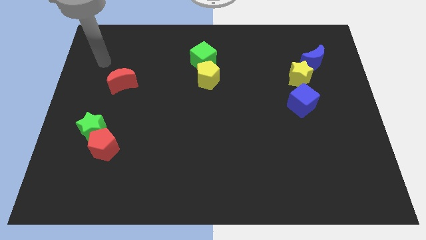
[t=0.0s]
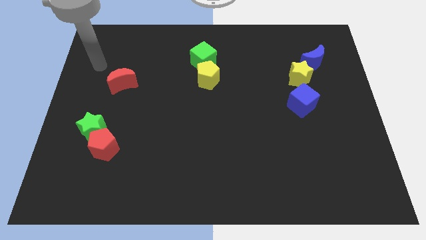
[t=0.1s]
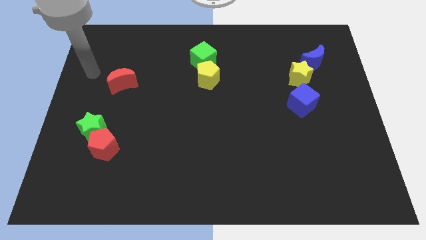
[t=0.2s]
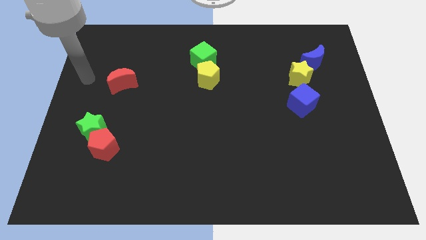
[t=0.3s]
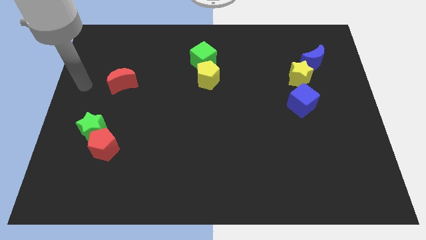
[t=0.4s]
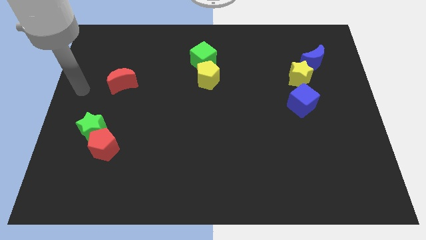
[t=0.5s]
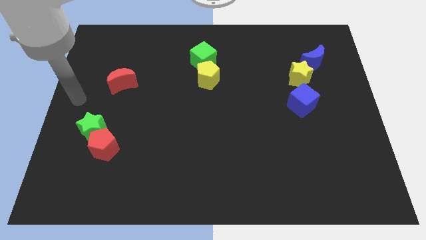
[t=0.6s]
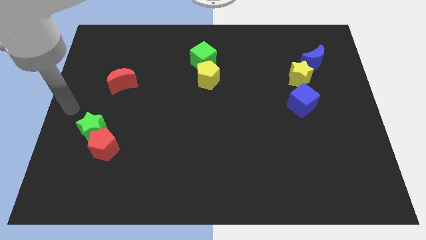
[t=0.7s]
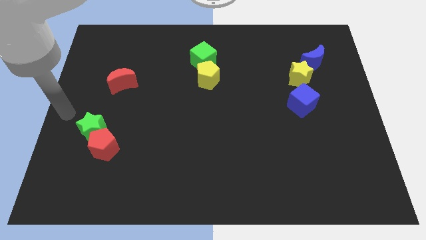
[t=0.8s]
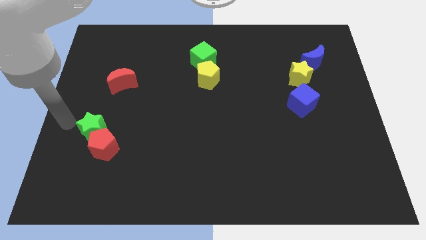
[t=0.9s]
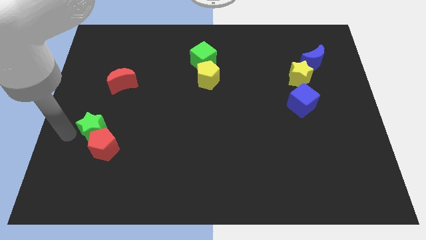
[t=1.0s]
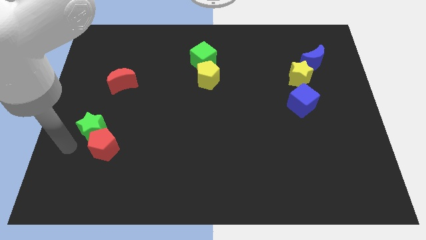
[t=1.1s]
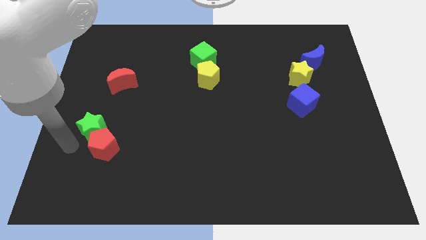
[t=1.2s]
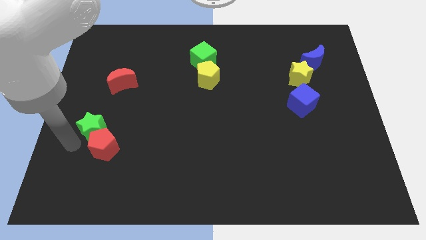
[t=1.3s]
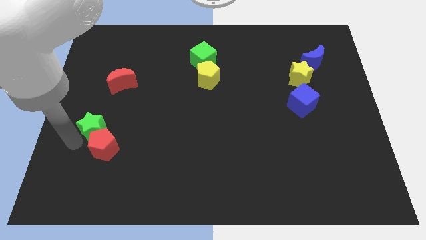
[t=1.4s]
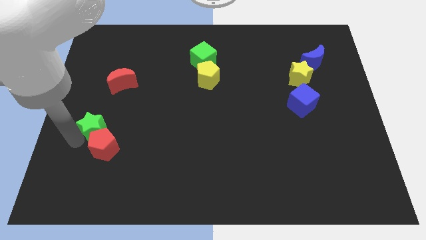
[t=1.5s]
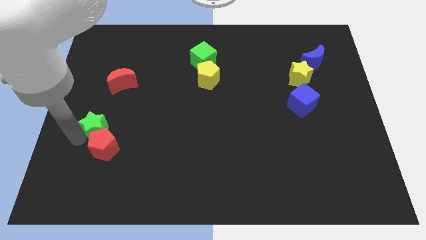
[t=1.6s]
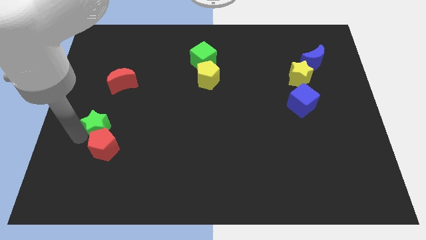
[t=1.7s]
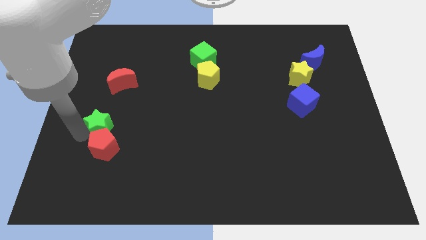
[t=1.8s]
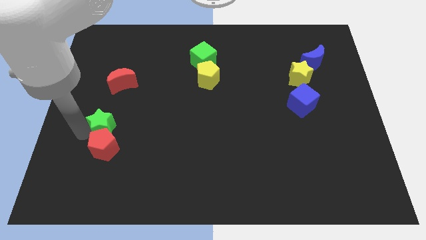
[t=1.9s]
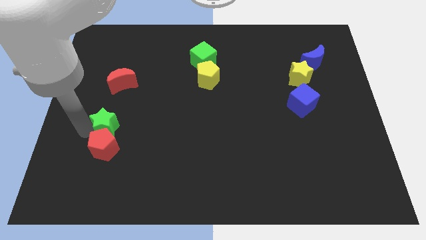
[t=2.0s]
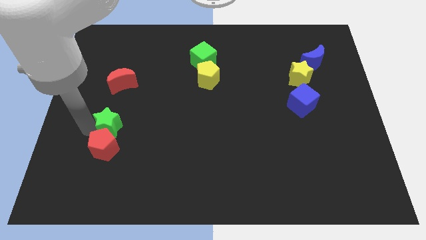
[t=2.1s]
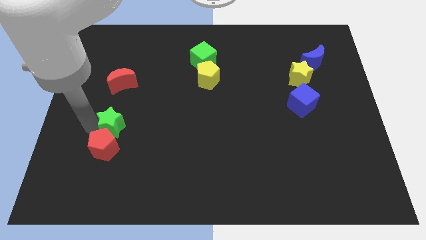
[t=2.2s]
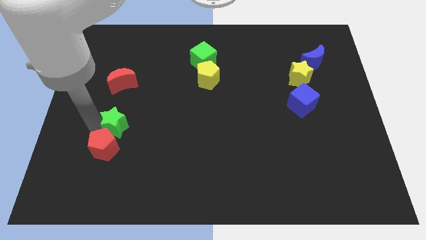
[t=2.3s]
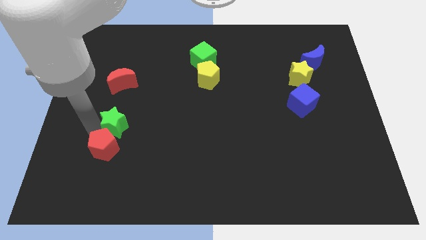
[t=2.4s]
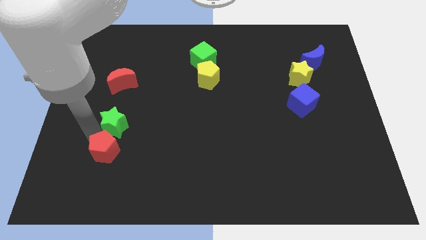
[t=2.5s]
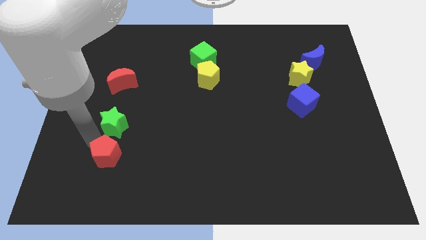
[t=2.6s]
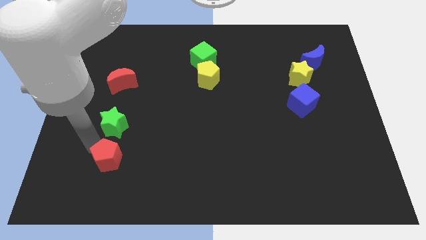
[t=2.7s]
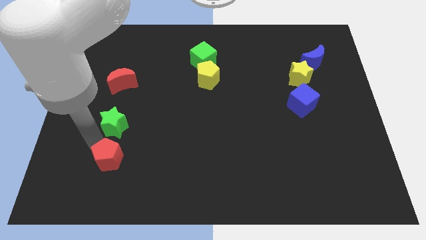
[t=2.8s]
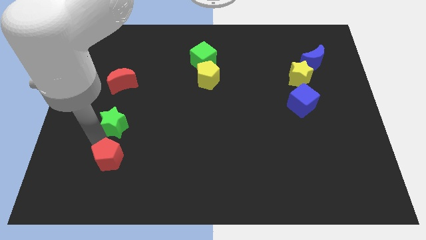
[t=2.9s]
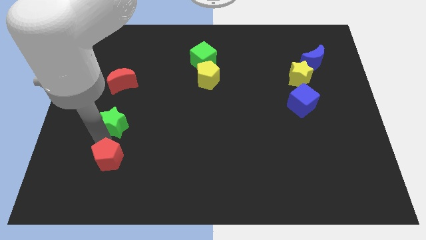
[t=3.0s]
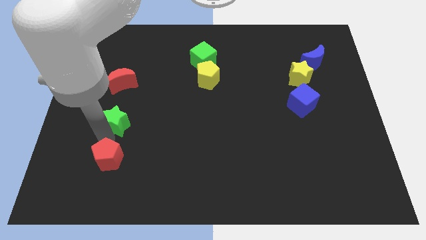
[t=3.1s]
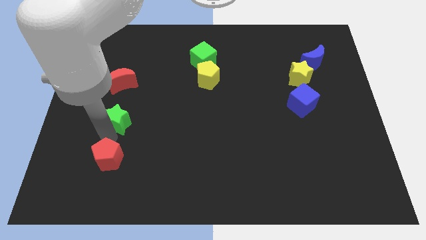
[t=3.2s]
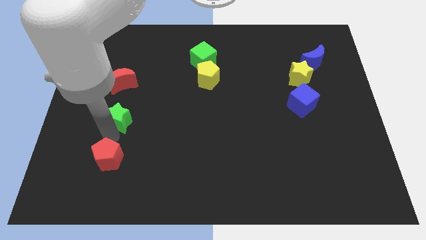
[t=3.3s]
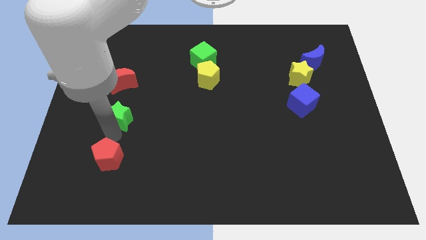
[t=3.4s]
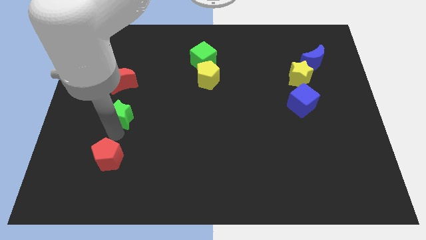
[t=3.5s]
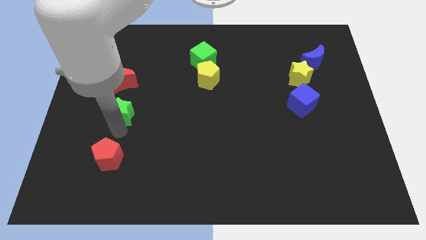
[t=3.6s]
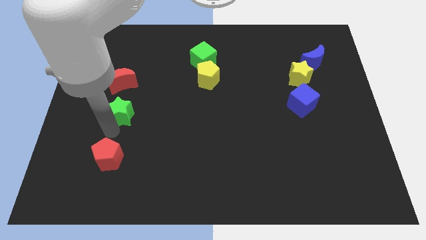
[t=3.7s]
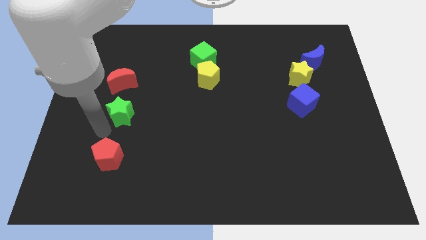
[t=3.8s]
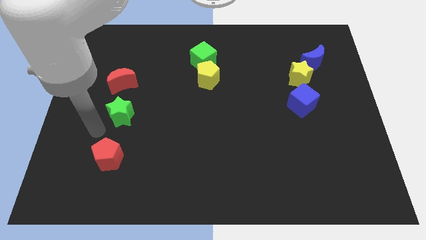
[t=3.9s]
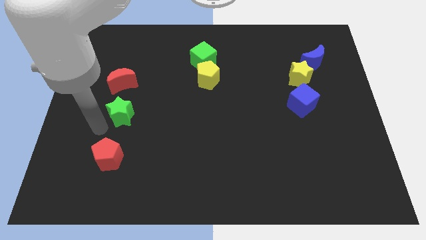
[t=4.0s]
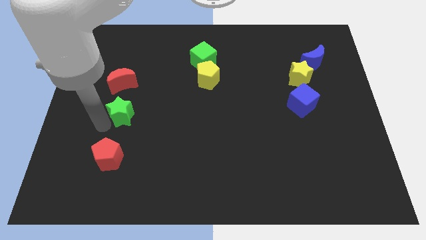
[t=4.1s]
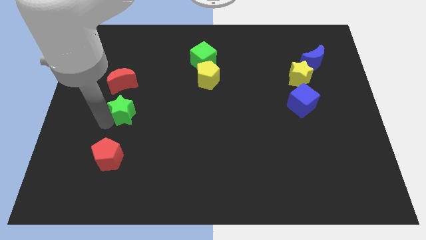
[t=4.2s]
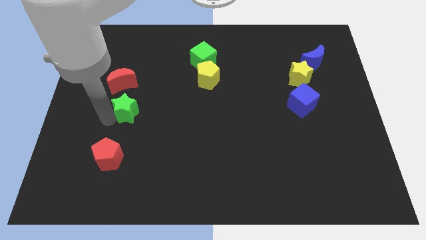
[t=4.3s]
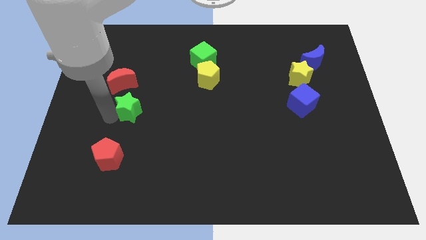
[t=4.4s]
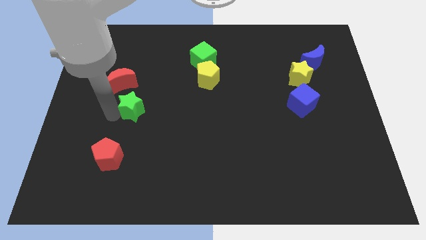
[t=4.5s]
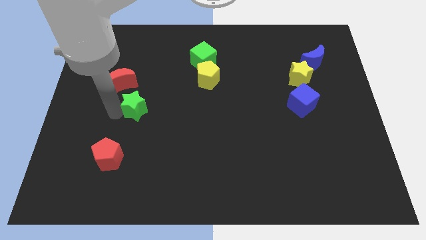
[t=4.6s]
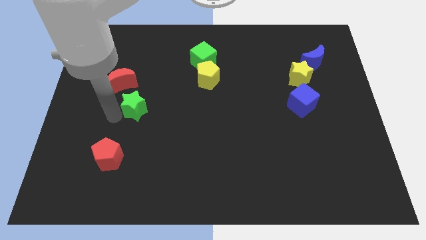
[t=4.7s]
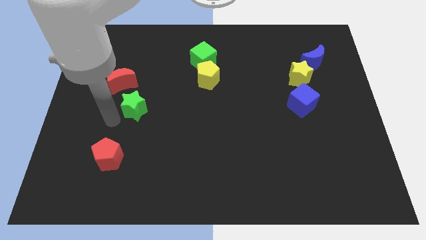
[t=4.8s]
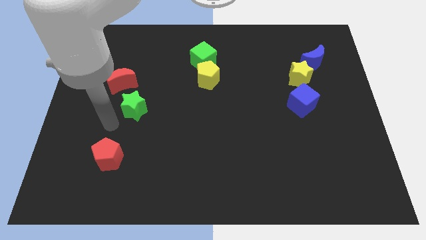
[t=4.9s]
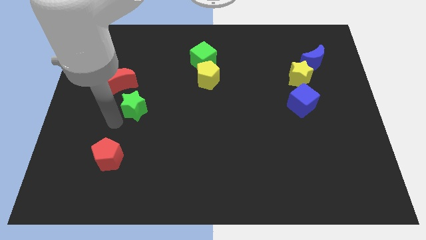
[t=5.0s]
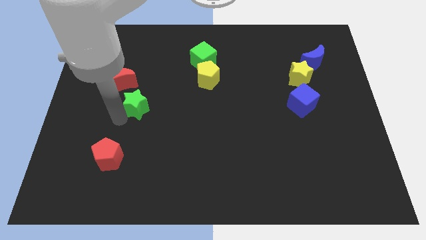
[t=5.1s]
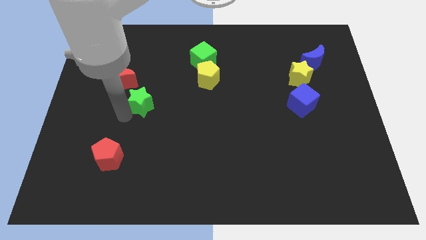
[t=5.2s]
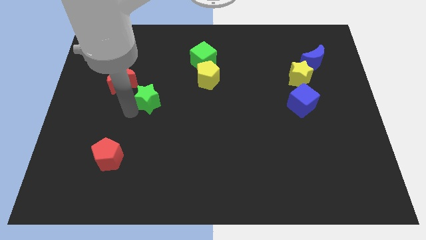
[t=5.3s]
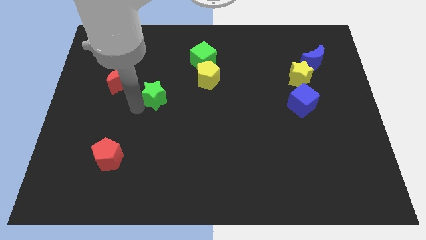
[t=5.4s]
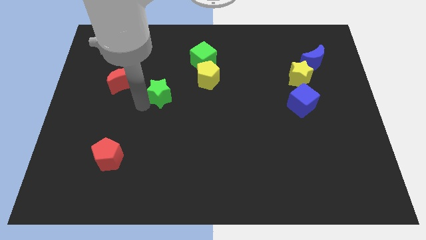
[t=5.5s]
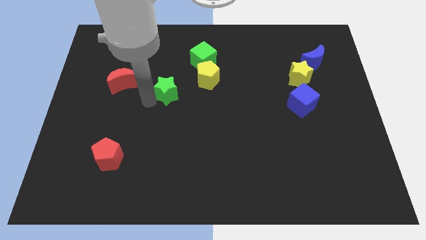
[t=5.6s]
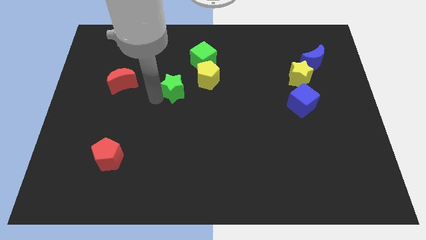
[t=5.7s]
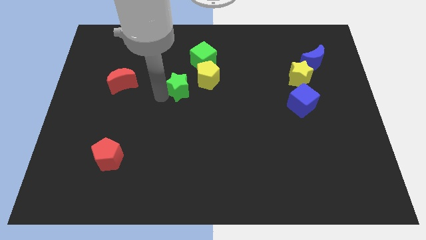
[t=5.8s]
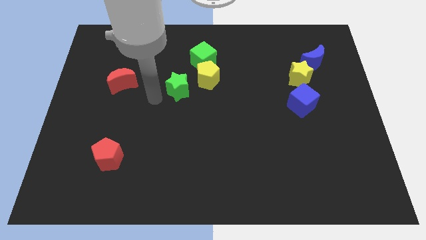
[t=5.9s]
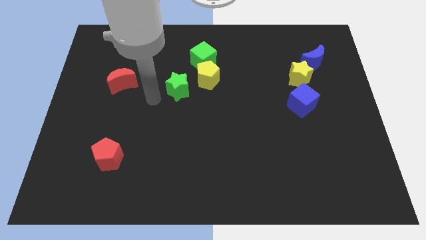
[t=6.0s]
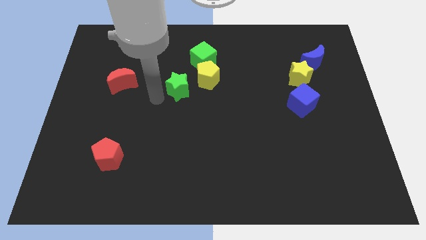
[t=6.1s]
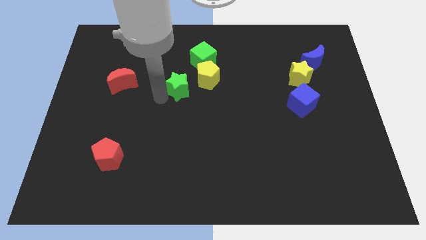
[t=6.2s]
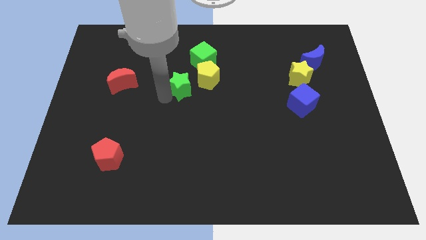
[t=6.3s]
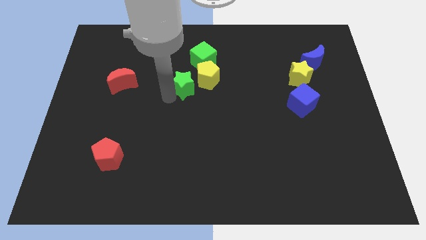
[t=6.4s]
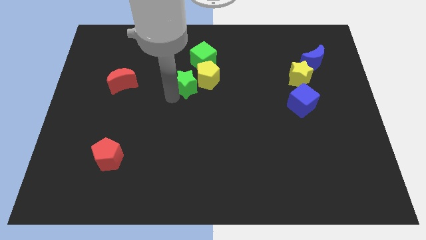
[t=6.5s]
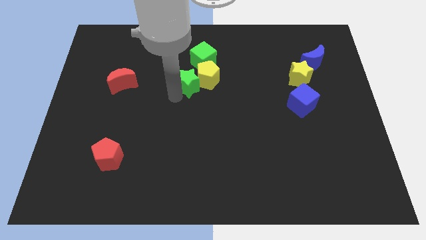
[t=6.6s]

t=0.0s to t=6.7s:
move the green star next to the yellow pentagon

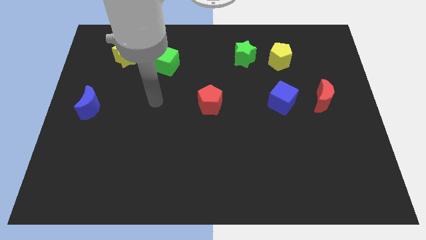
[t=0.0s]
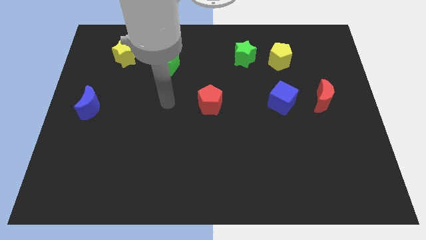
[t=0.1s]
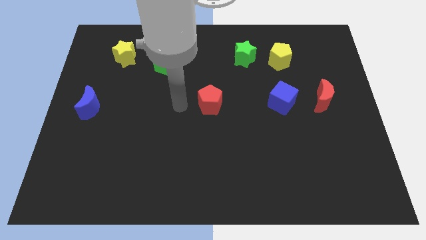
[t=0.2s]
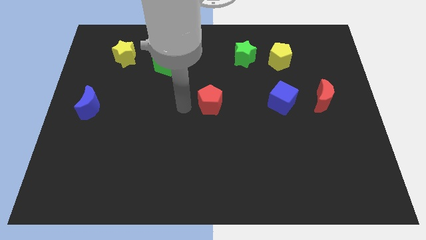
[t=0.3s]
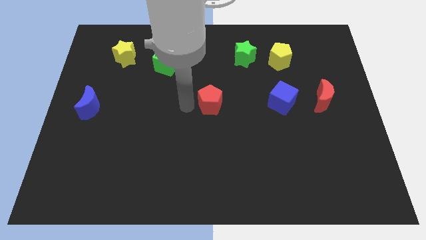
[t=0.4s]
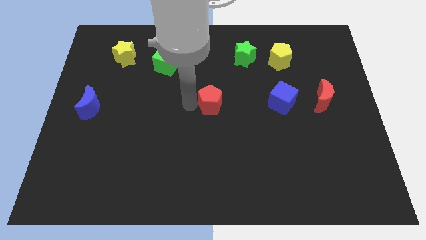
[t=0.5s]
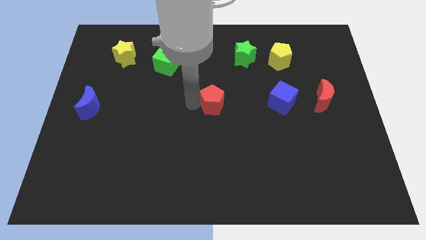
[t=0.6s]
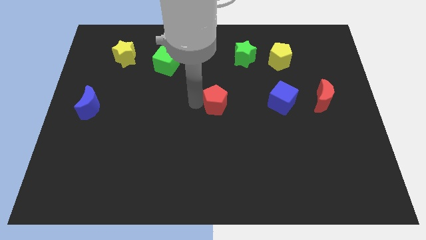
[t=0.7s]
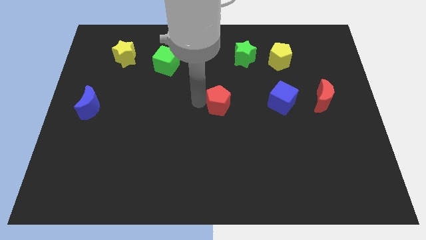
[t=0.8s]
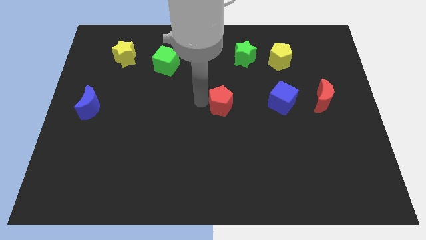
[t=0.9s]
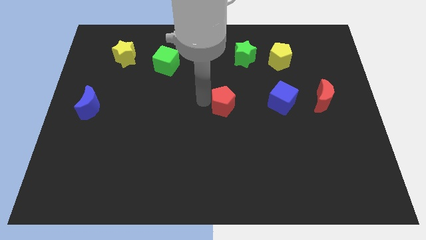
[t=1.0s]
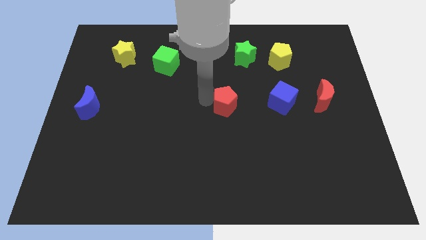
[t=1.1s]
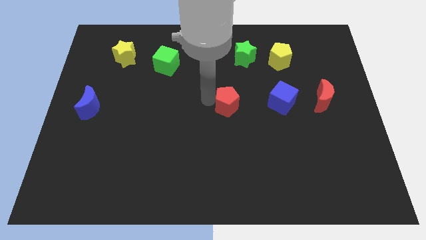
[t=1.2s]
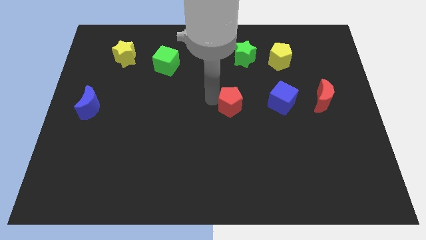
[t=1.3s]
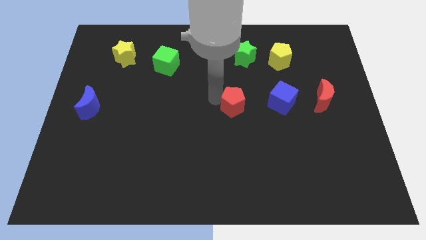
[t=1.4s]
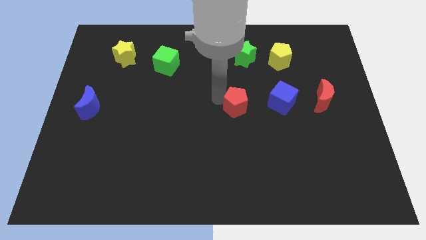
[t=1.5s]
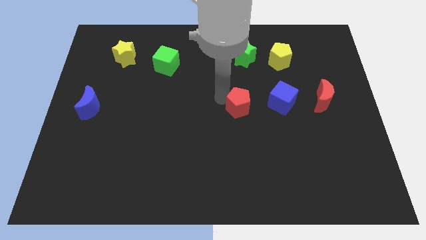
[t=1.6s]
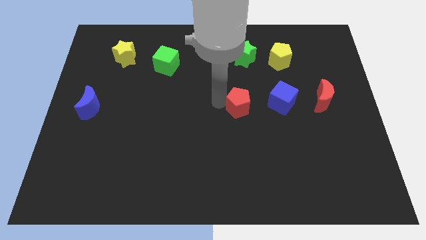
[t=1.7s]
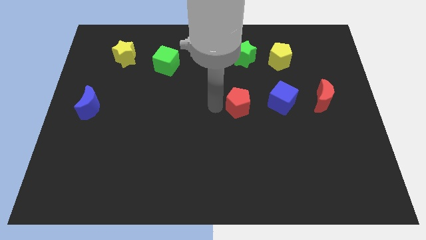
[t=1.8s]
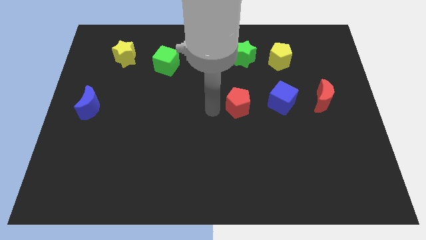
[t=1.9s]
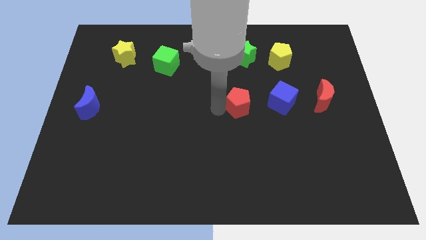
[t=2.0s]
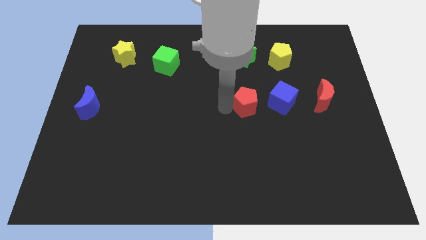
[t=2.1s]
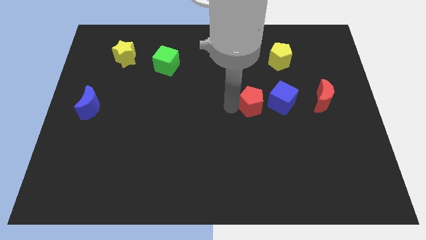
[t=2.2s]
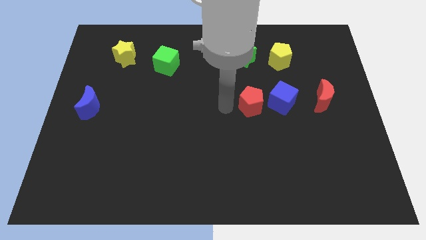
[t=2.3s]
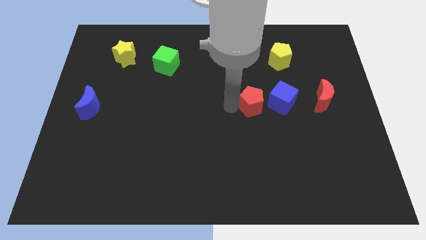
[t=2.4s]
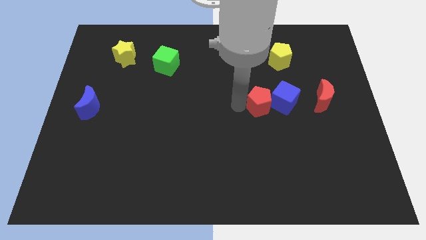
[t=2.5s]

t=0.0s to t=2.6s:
put the red pentagon towards the blue cube
